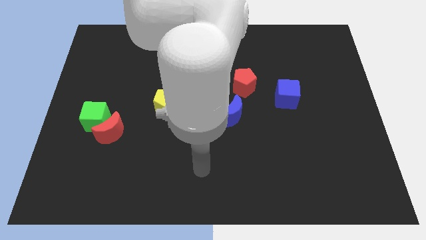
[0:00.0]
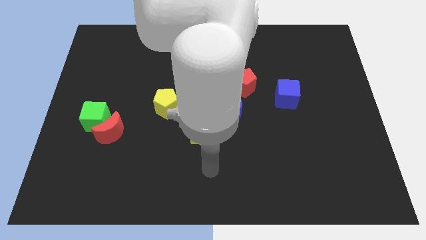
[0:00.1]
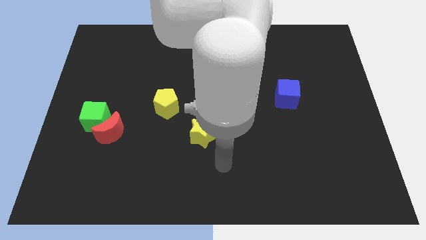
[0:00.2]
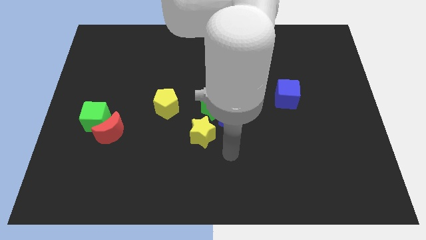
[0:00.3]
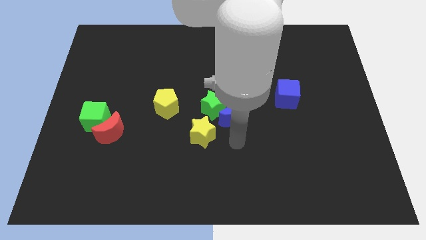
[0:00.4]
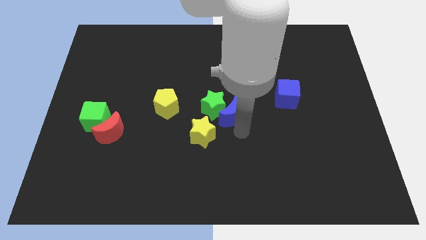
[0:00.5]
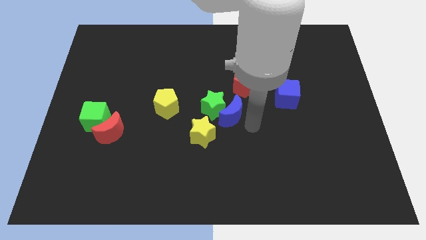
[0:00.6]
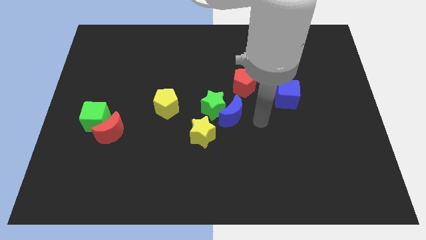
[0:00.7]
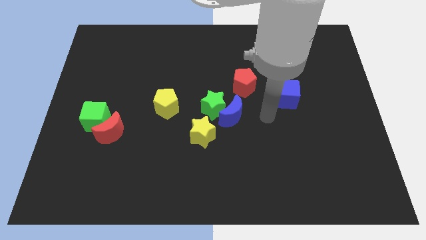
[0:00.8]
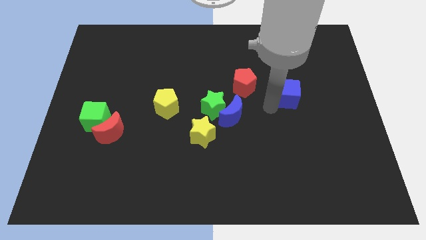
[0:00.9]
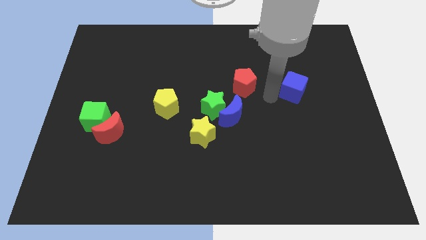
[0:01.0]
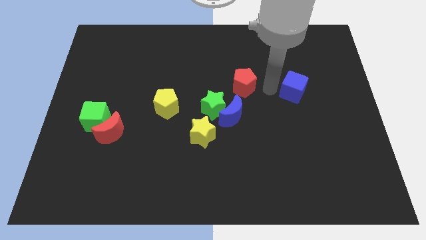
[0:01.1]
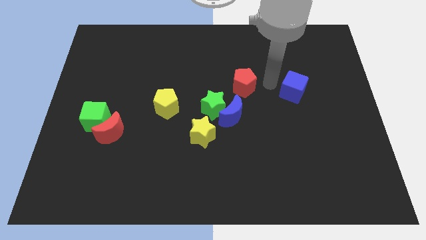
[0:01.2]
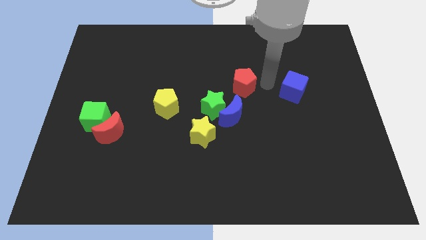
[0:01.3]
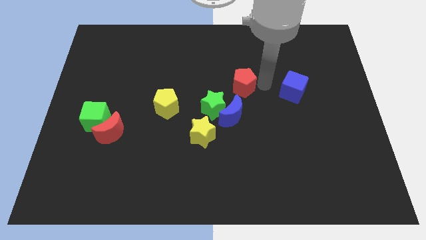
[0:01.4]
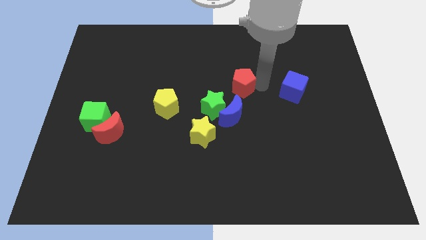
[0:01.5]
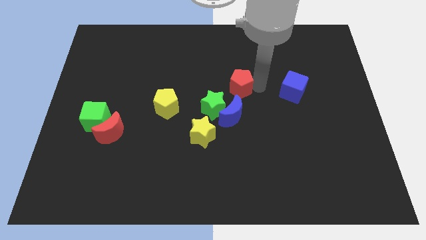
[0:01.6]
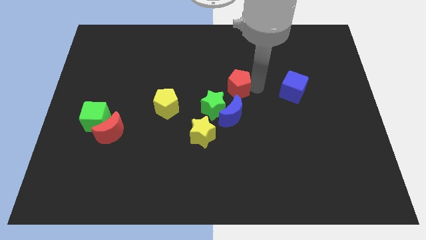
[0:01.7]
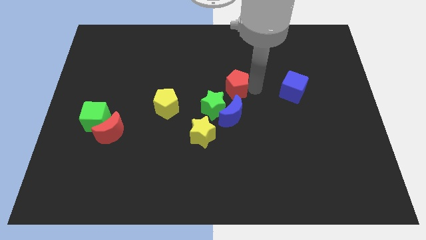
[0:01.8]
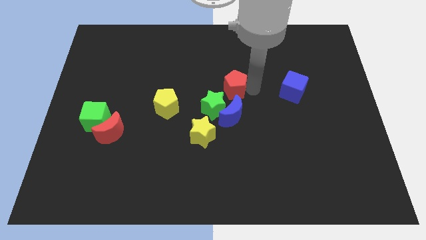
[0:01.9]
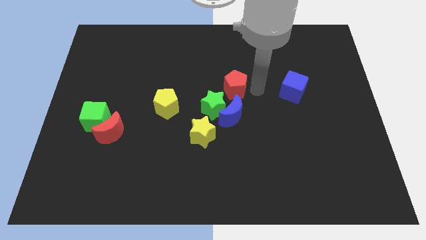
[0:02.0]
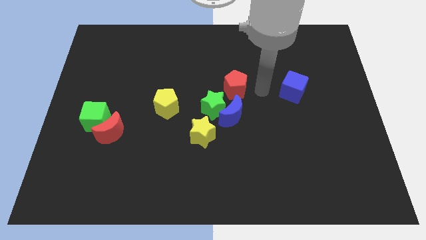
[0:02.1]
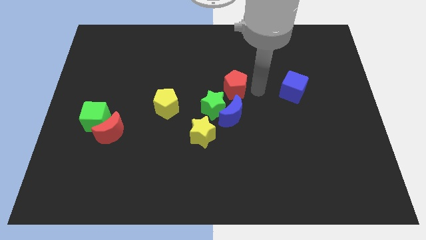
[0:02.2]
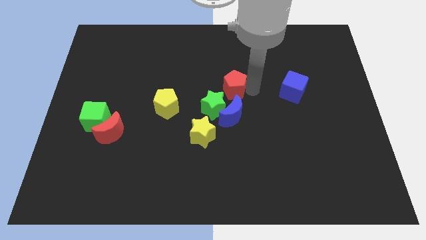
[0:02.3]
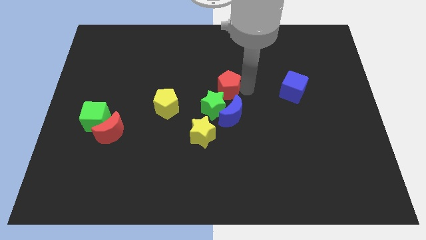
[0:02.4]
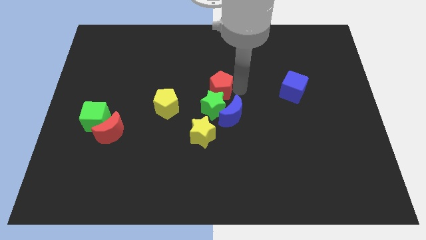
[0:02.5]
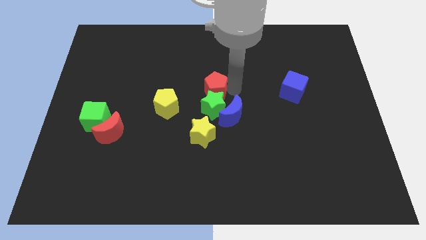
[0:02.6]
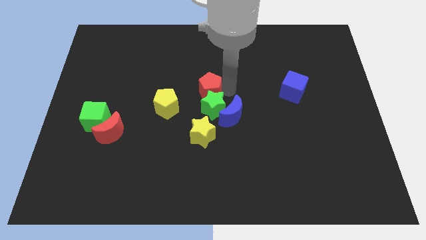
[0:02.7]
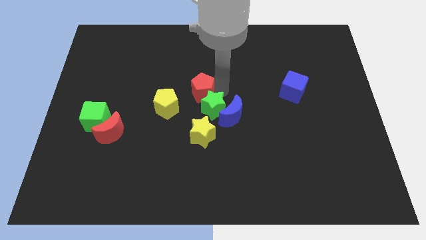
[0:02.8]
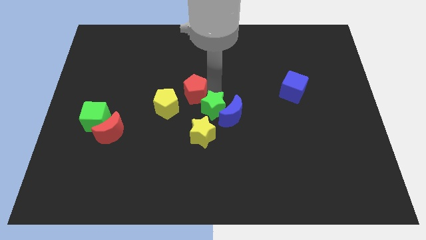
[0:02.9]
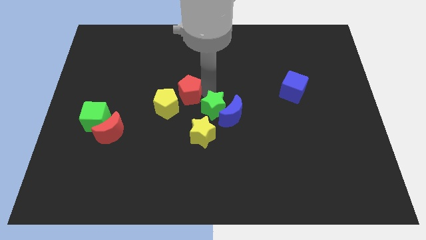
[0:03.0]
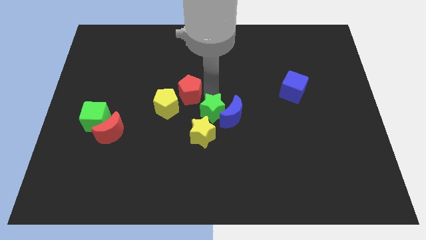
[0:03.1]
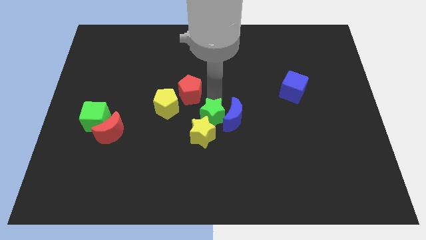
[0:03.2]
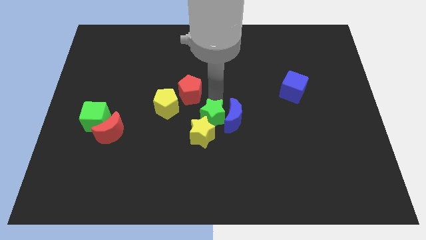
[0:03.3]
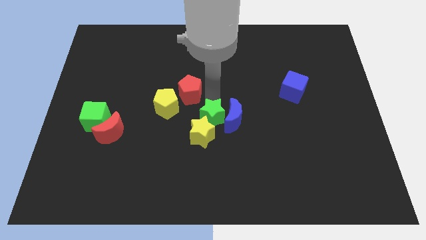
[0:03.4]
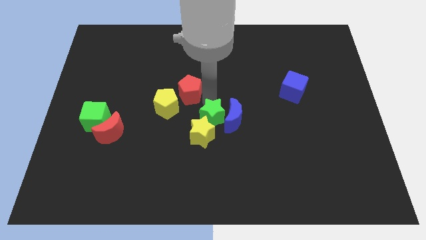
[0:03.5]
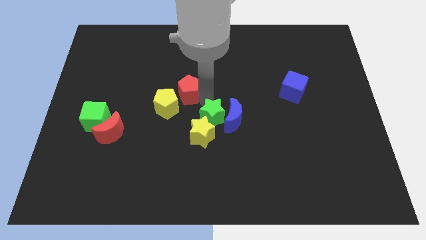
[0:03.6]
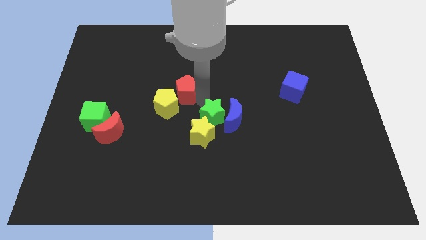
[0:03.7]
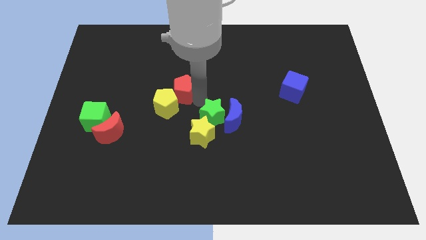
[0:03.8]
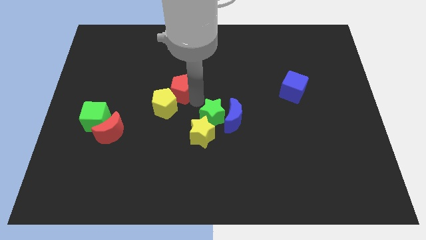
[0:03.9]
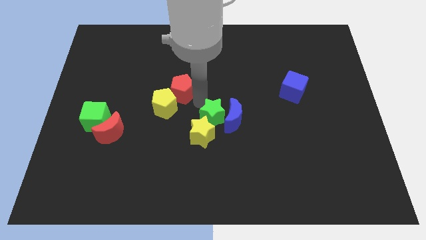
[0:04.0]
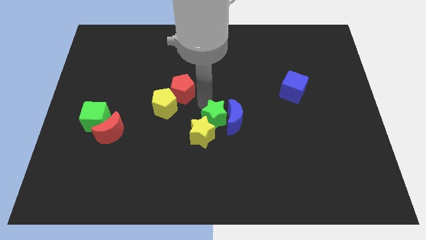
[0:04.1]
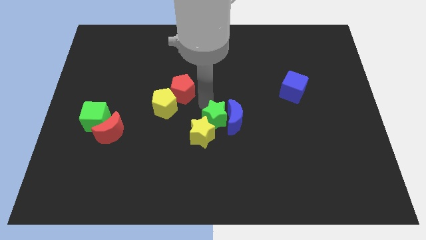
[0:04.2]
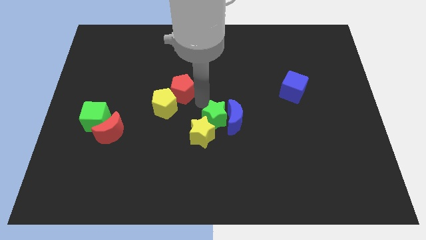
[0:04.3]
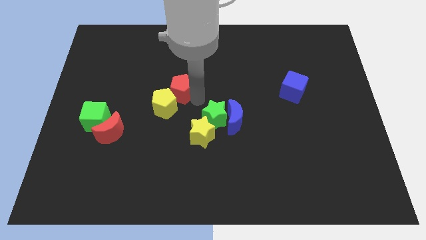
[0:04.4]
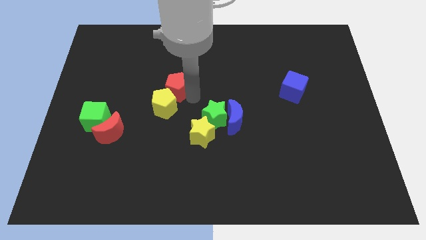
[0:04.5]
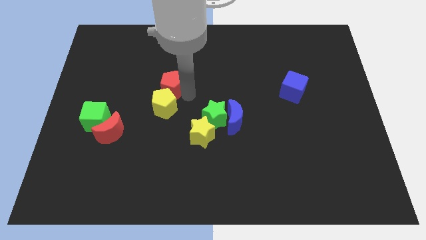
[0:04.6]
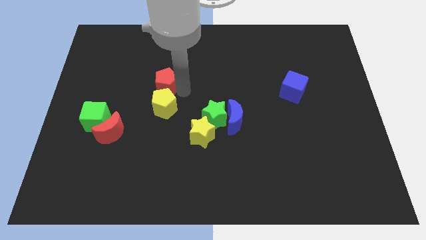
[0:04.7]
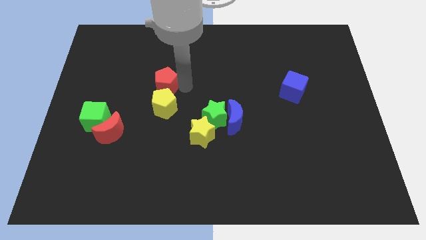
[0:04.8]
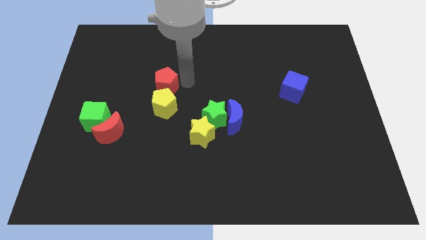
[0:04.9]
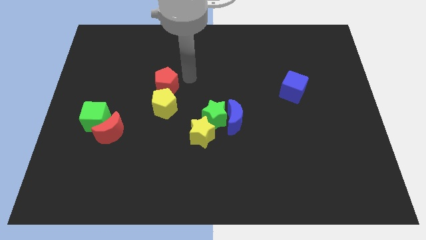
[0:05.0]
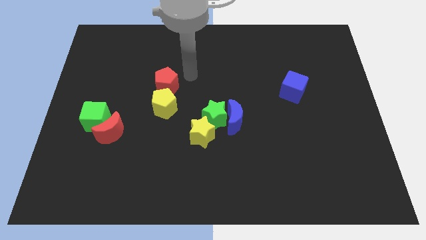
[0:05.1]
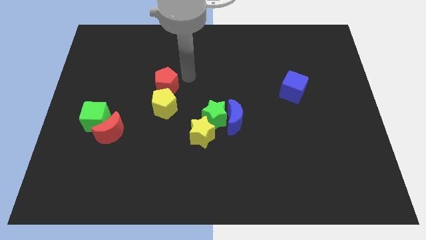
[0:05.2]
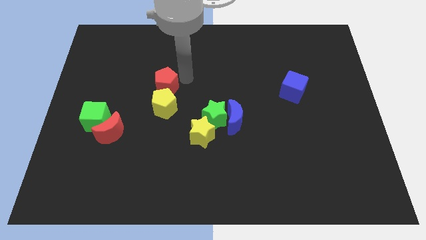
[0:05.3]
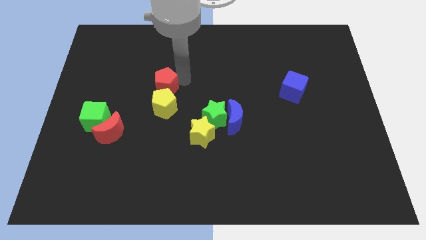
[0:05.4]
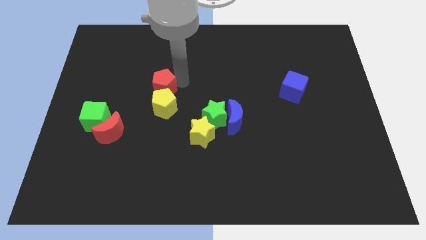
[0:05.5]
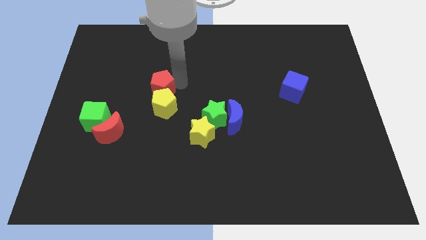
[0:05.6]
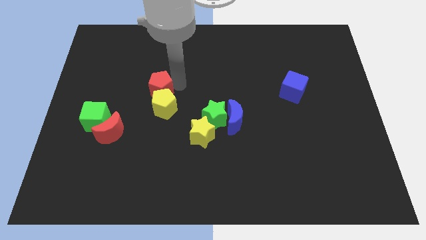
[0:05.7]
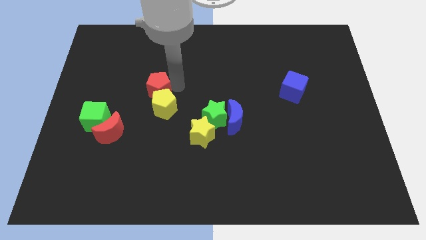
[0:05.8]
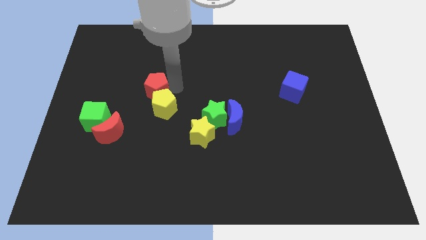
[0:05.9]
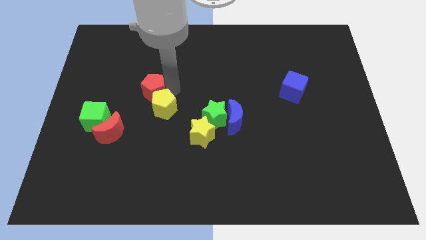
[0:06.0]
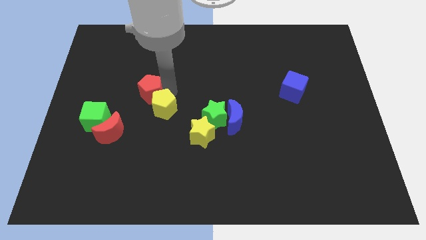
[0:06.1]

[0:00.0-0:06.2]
move the red pentagon just left of the yellow pentagon

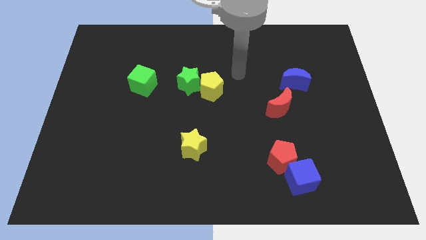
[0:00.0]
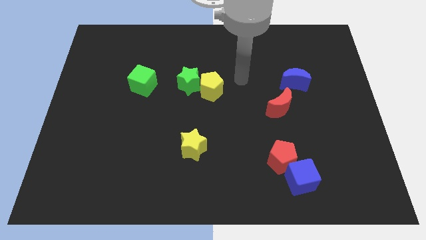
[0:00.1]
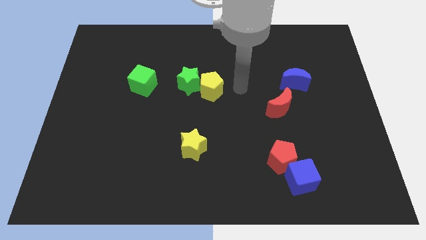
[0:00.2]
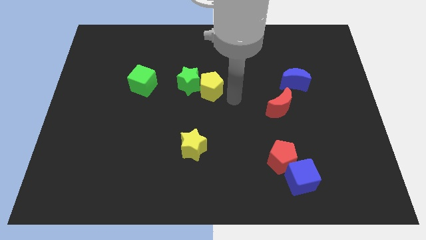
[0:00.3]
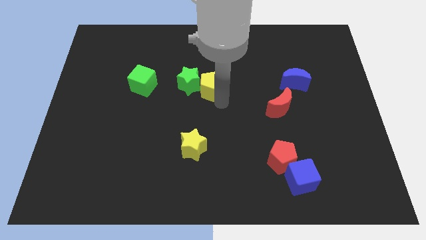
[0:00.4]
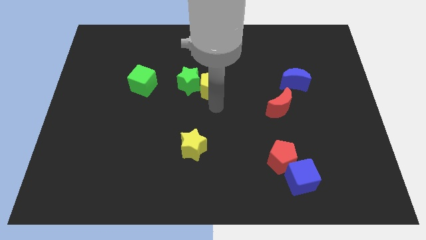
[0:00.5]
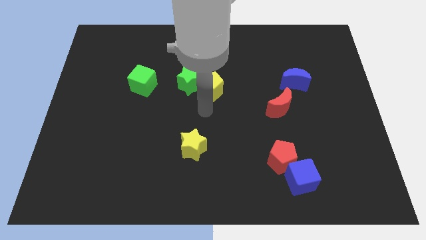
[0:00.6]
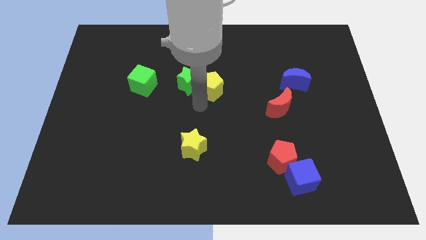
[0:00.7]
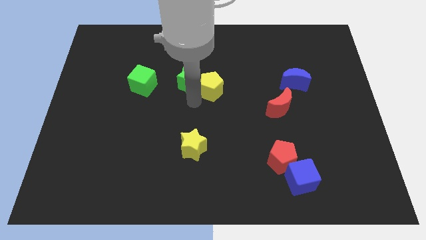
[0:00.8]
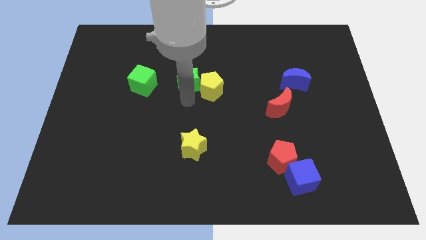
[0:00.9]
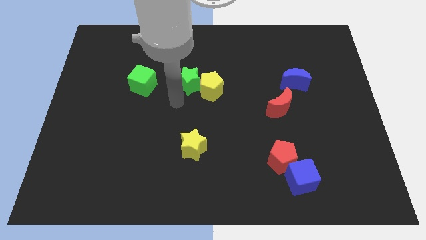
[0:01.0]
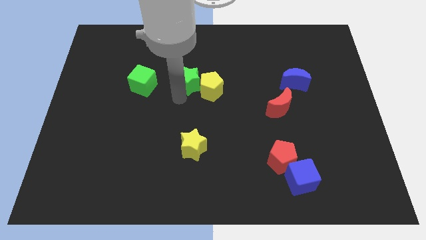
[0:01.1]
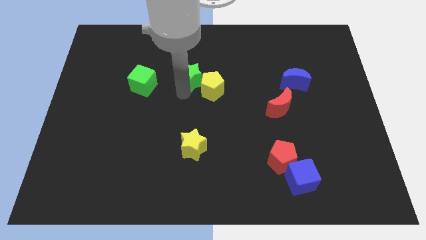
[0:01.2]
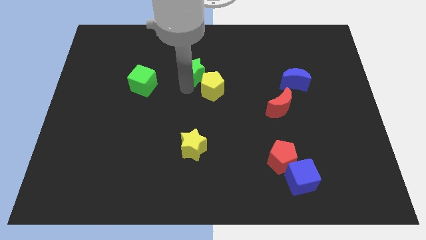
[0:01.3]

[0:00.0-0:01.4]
slide the green star to the top side of the yellow pentagon
